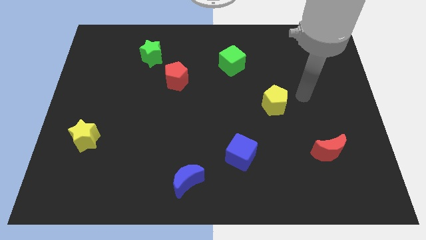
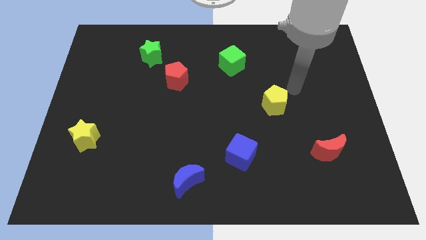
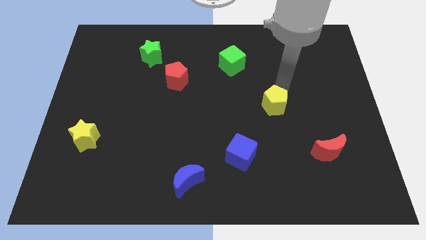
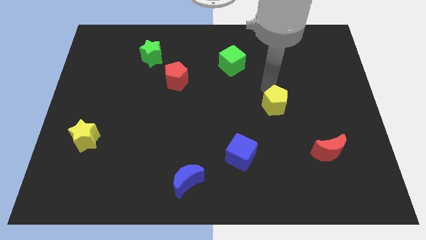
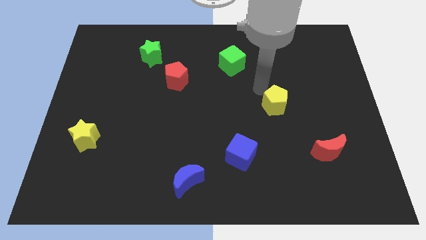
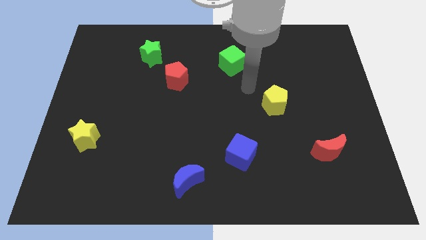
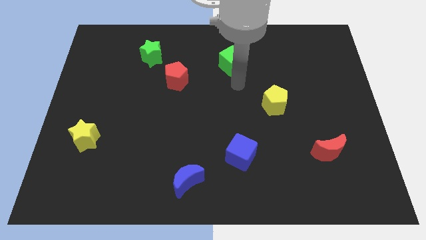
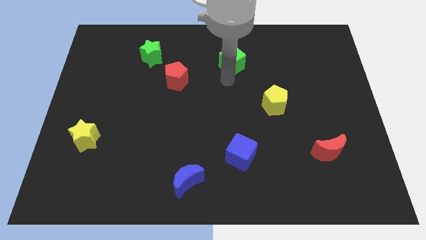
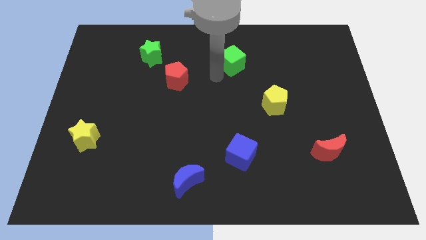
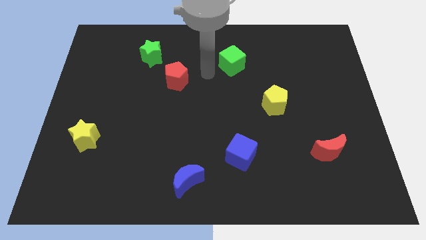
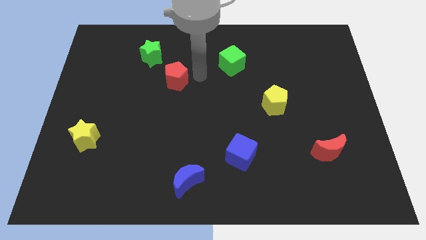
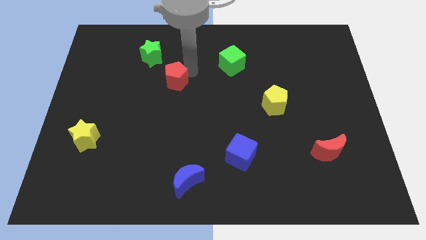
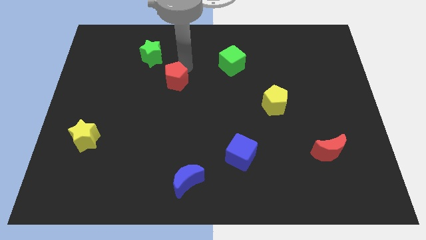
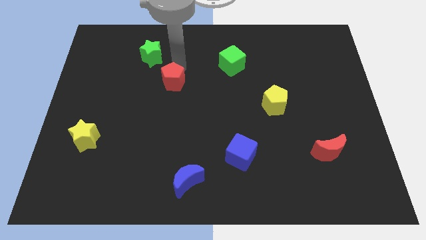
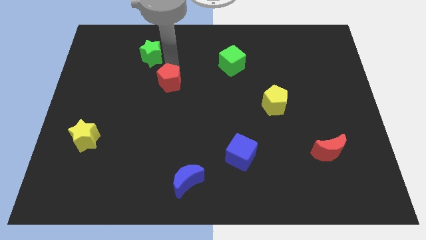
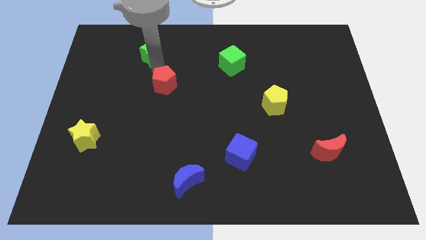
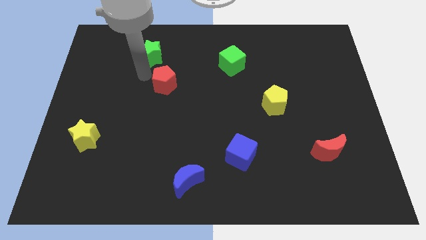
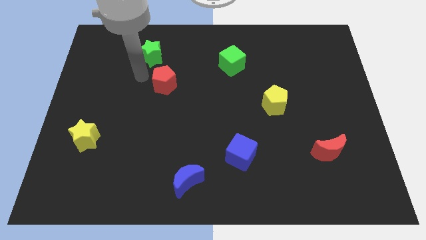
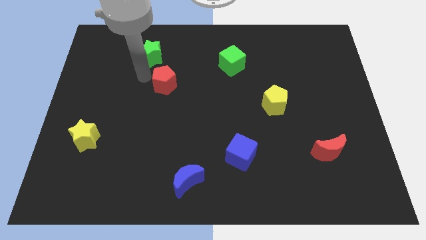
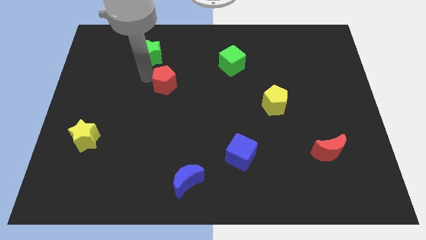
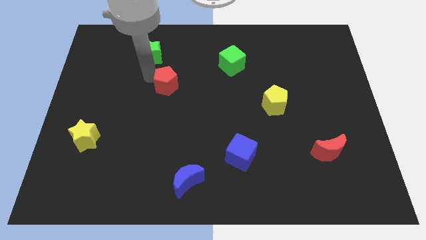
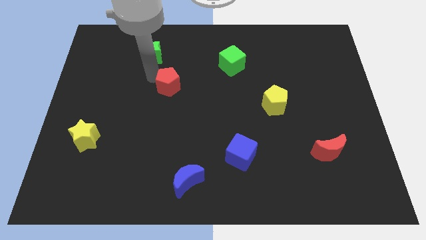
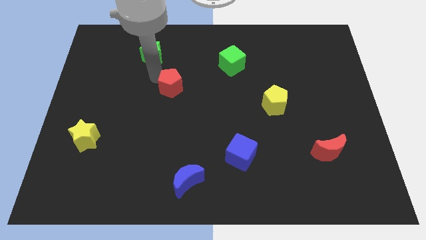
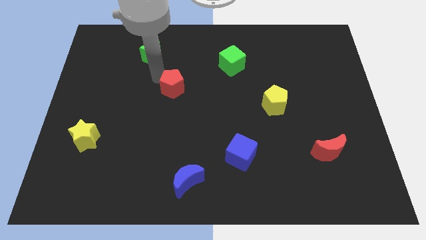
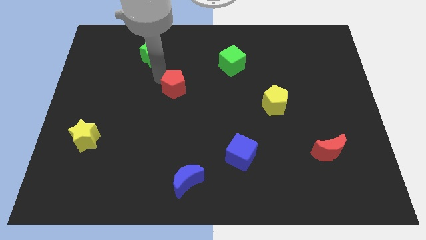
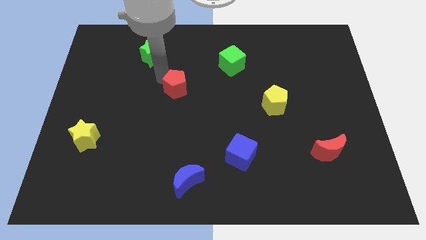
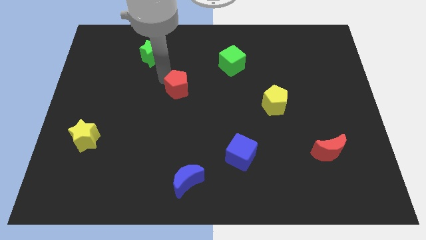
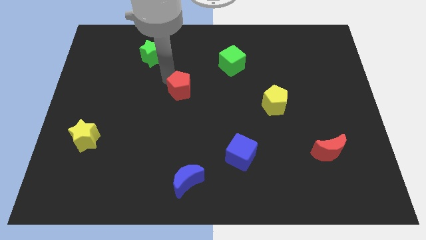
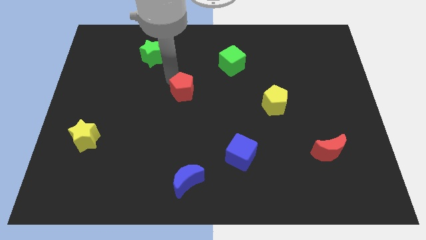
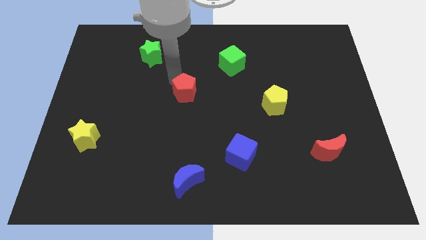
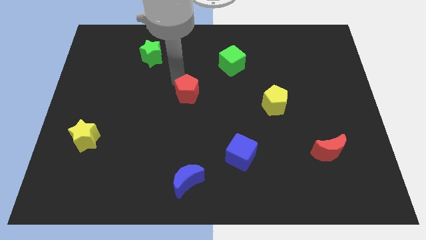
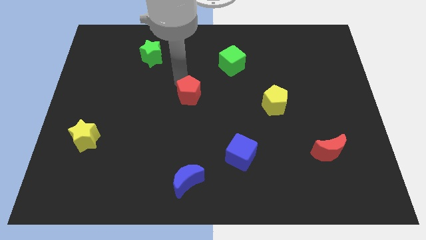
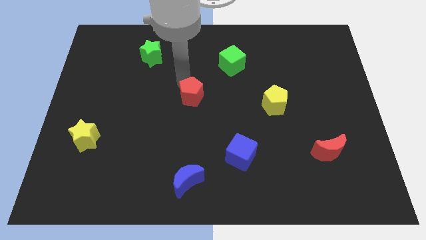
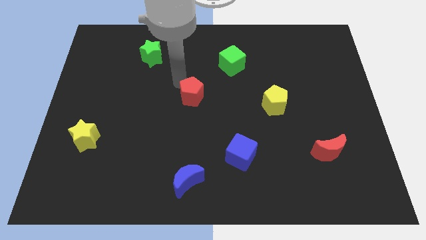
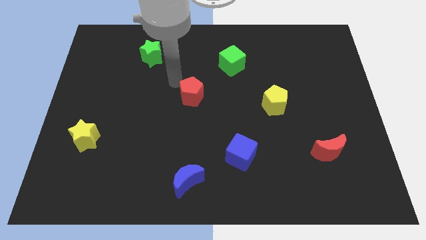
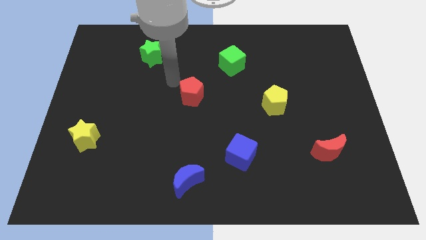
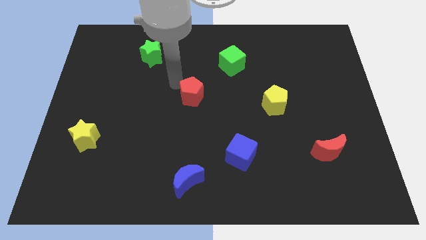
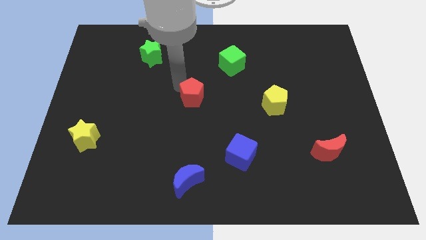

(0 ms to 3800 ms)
slightly move the red pentagon diagonally down and right

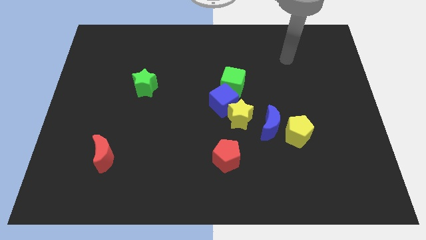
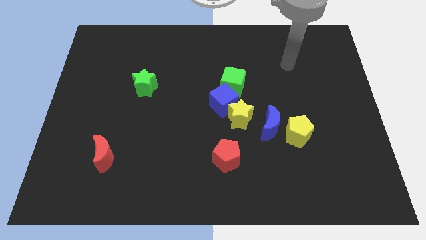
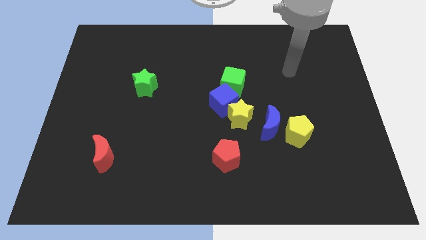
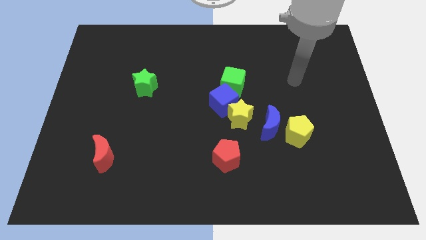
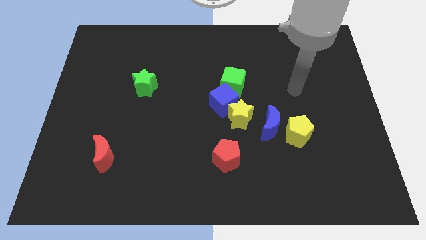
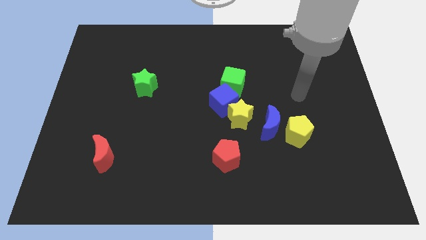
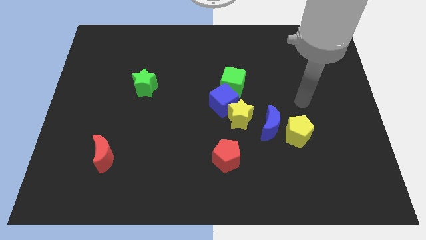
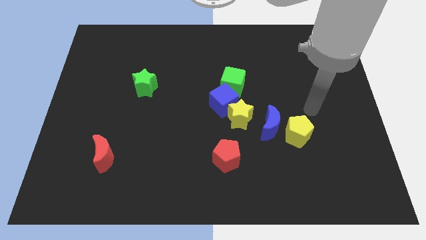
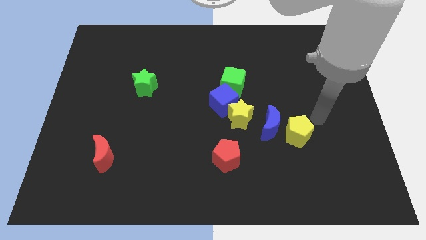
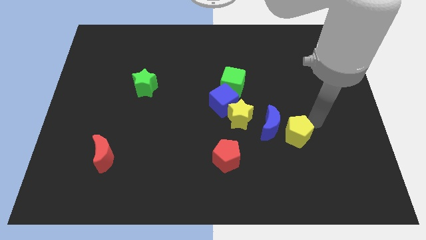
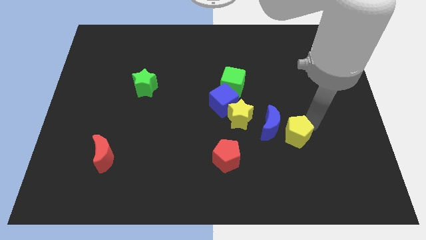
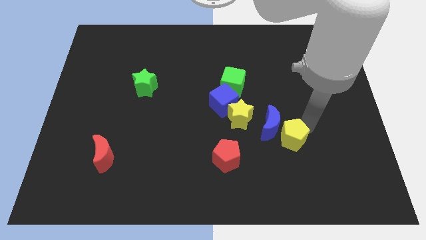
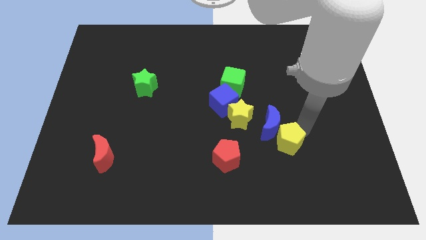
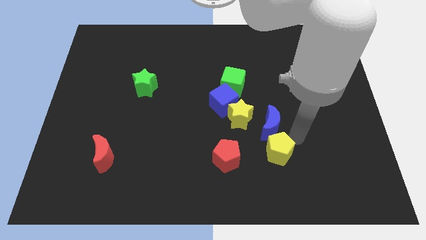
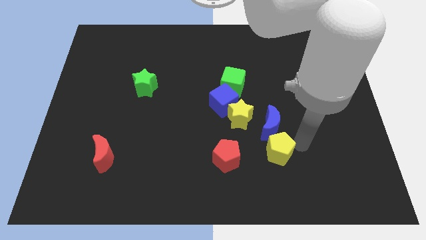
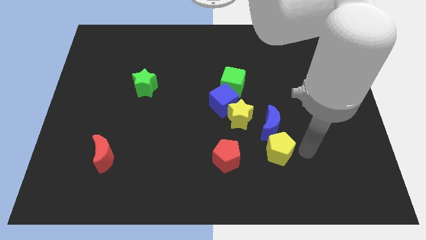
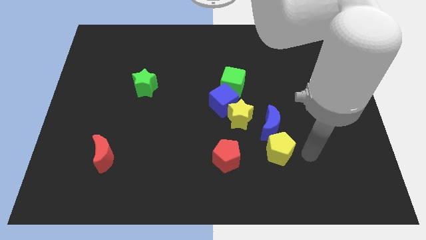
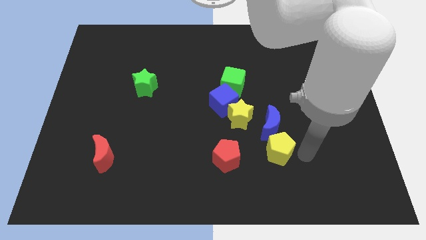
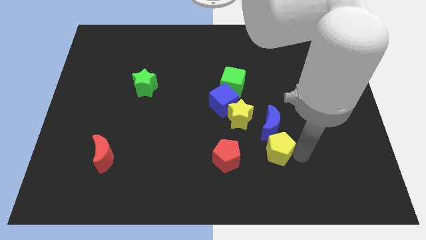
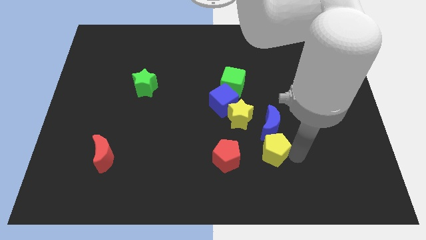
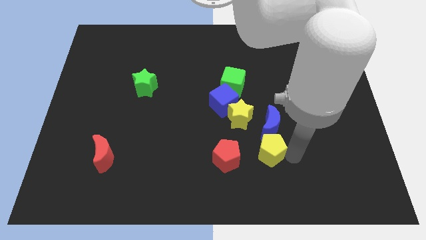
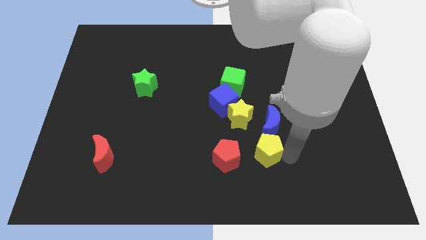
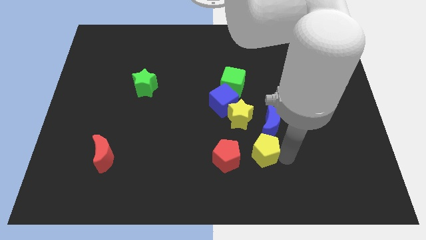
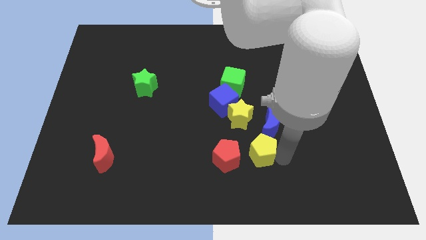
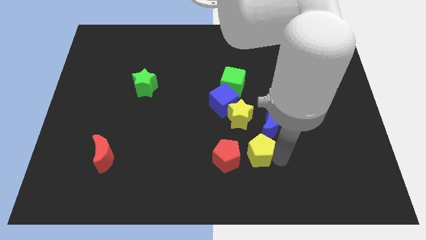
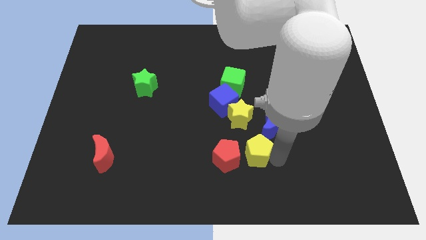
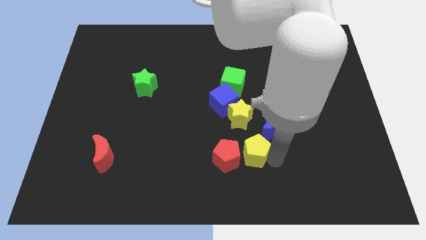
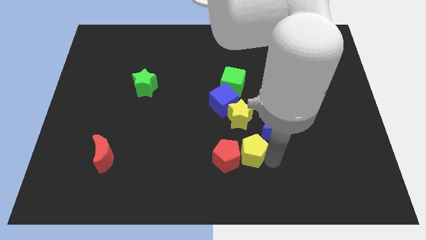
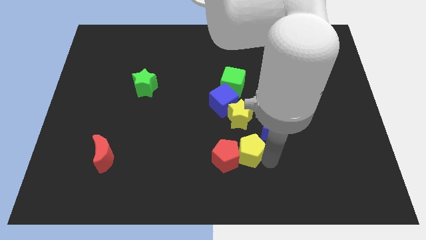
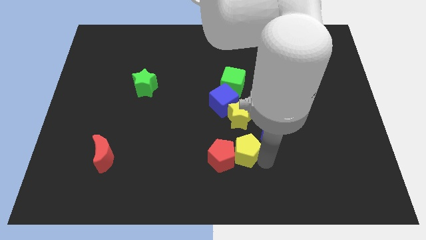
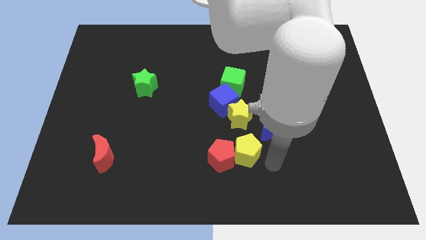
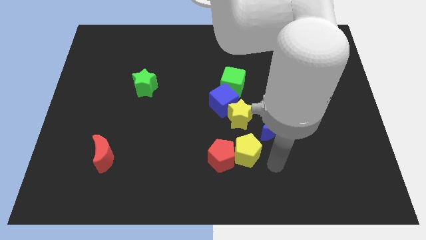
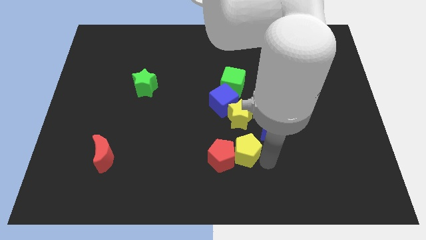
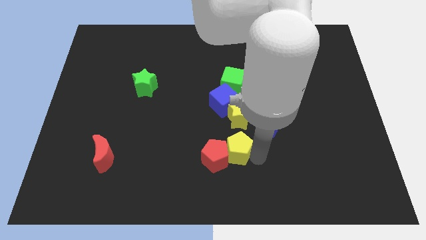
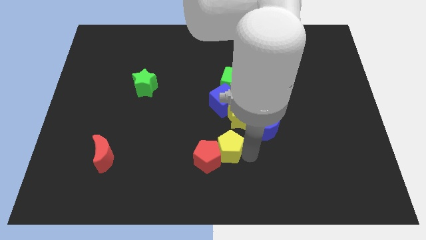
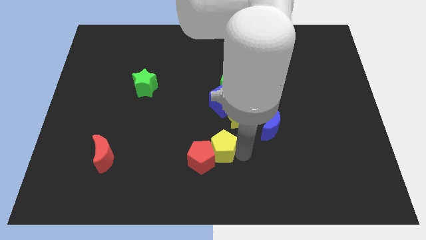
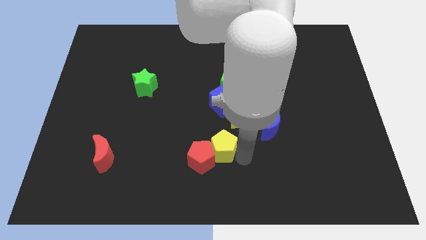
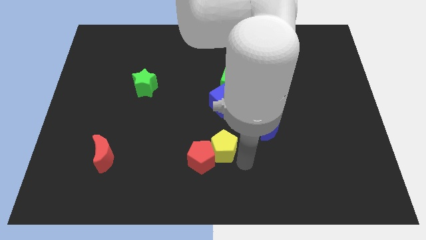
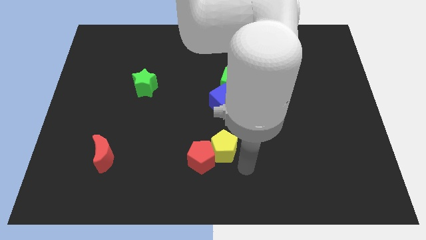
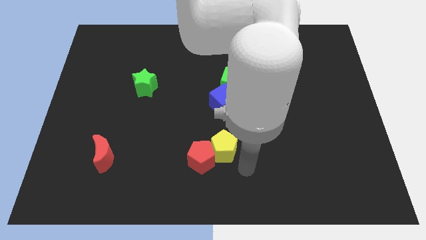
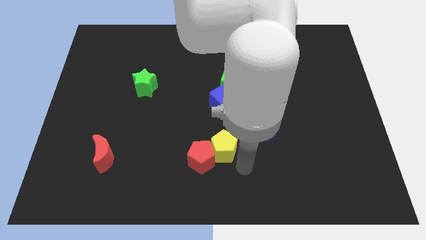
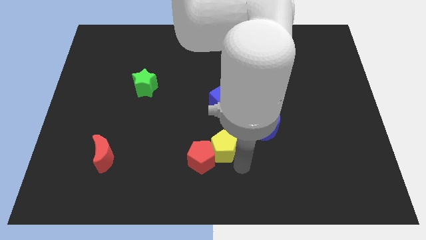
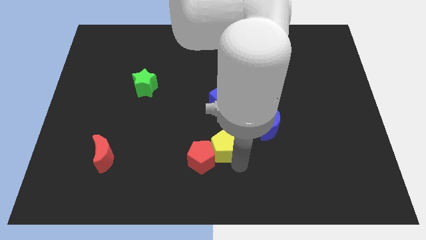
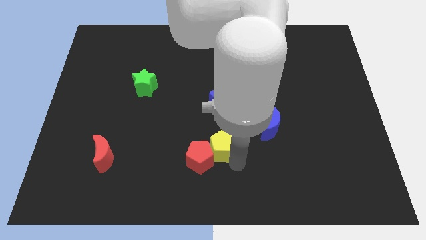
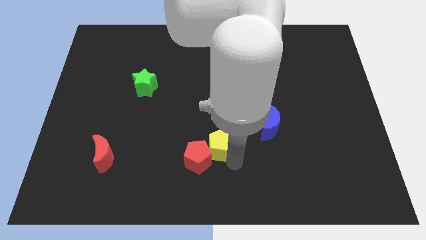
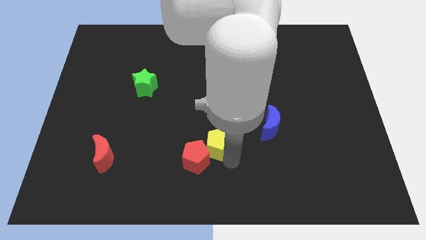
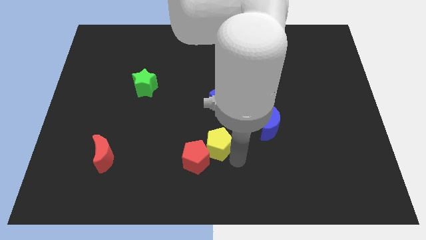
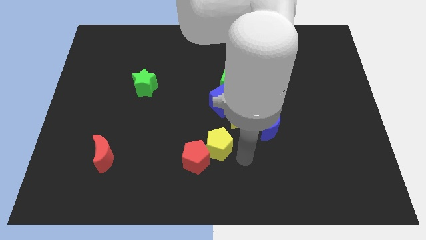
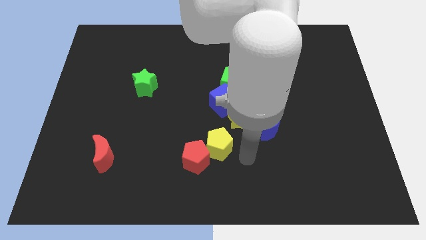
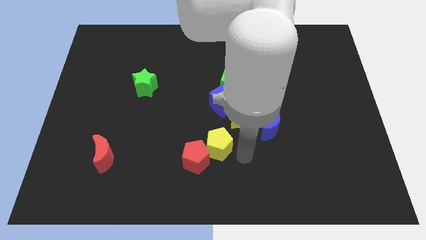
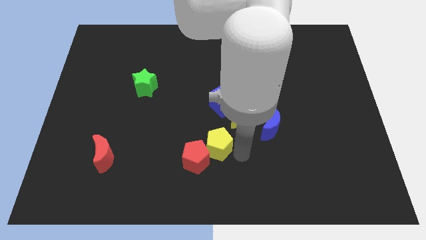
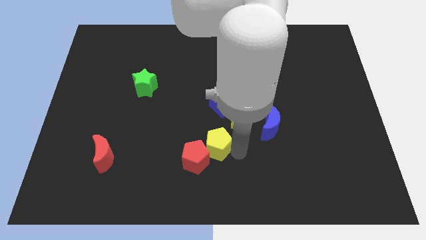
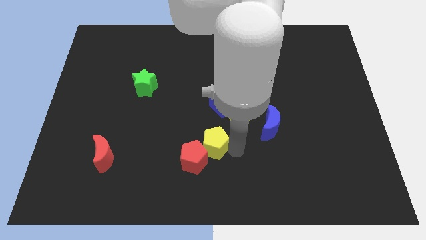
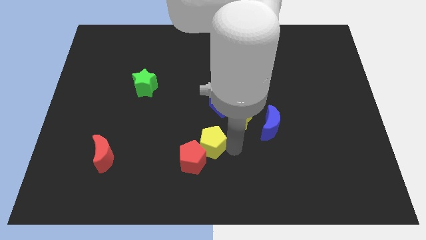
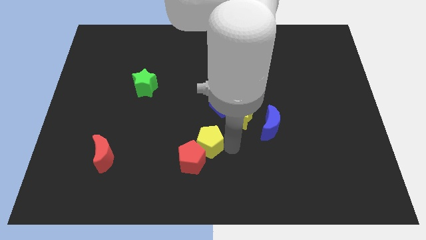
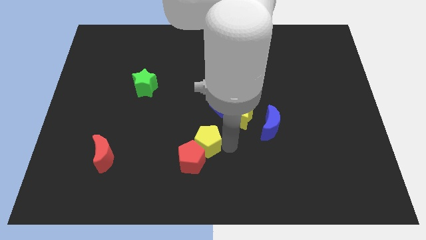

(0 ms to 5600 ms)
move the yellow pentagon left
